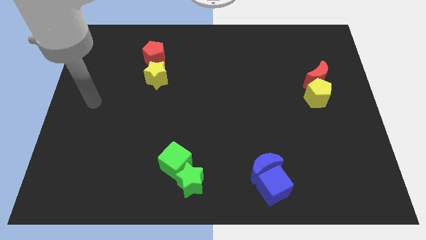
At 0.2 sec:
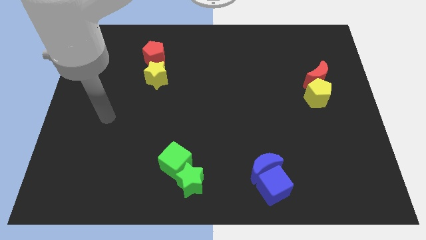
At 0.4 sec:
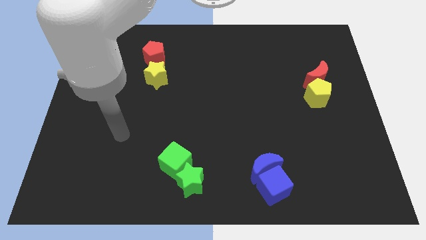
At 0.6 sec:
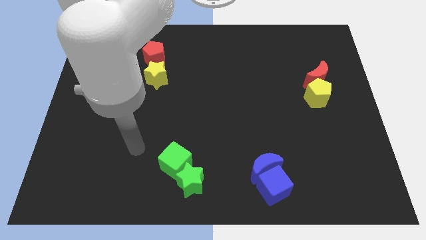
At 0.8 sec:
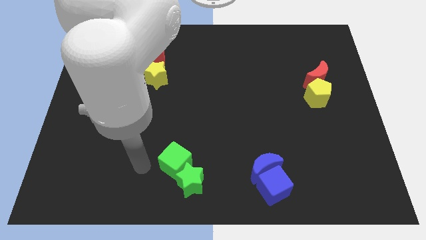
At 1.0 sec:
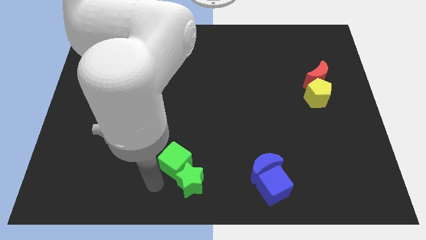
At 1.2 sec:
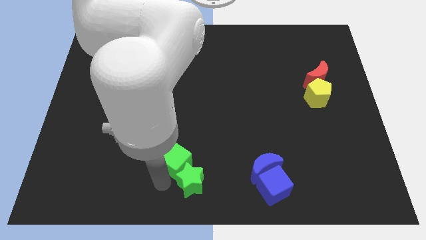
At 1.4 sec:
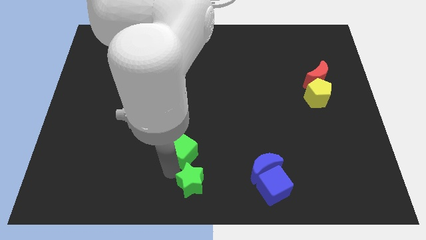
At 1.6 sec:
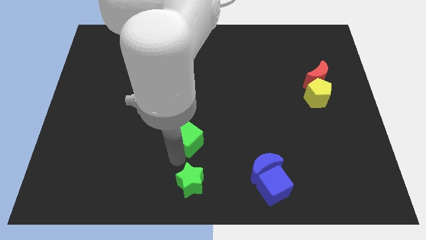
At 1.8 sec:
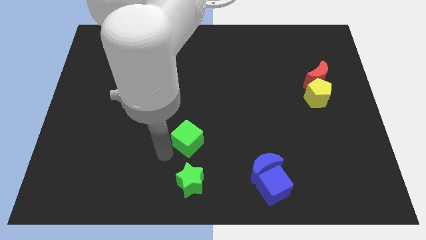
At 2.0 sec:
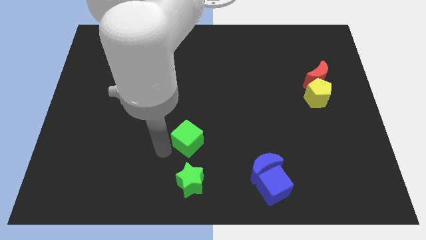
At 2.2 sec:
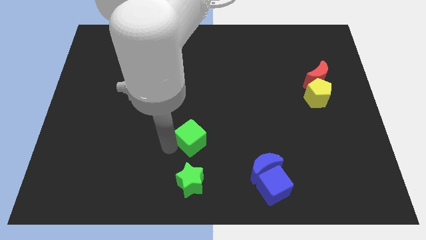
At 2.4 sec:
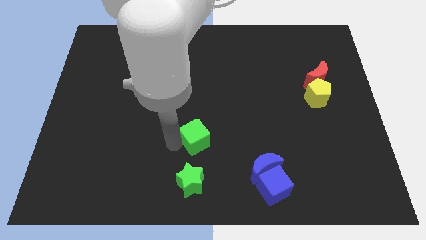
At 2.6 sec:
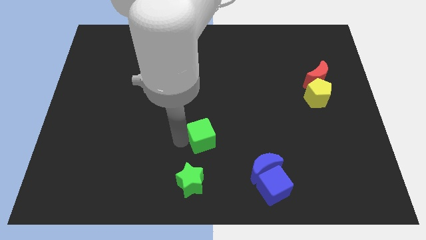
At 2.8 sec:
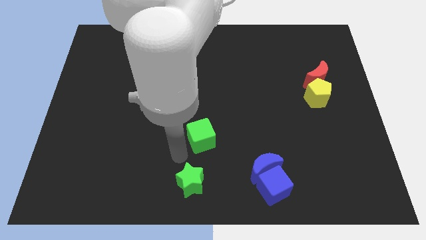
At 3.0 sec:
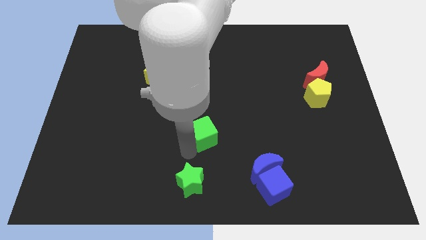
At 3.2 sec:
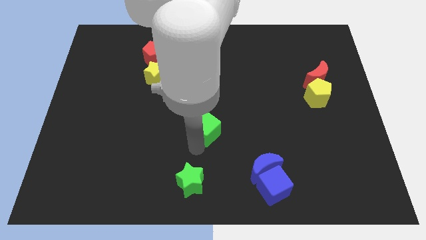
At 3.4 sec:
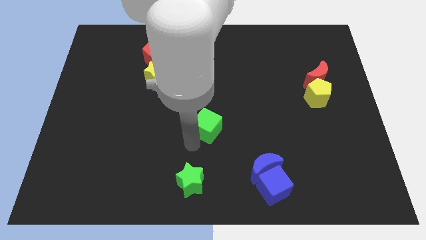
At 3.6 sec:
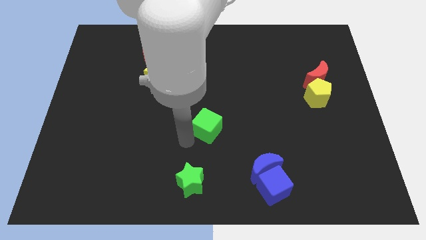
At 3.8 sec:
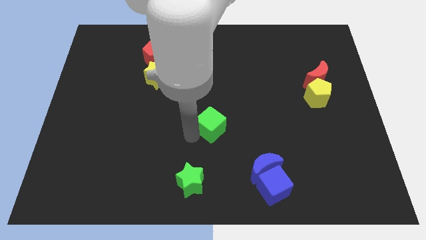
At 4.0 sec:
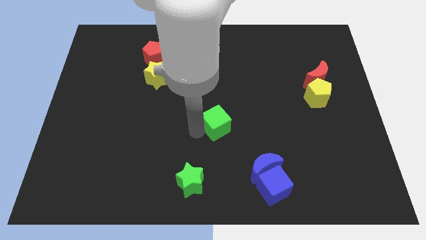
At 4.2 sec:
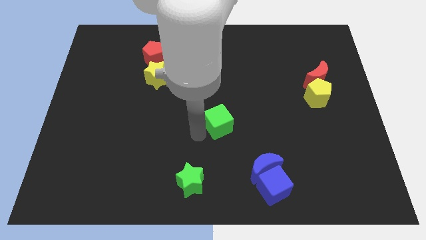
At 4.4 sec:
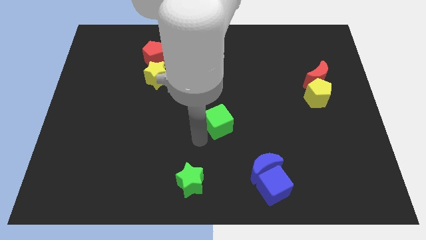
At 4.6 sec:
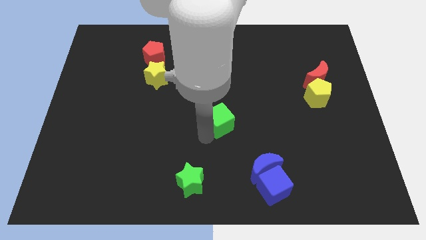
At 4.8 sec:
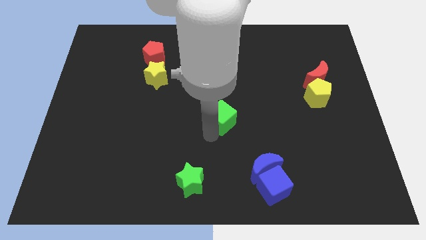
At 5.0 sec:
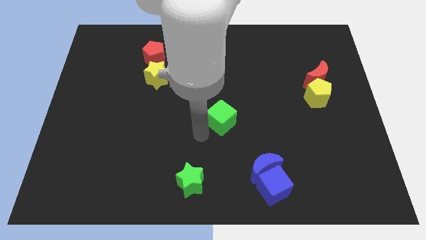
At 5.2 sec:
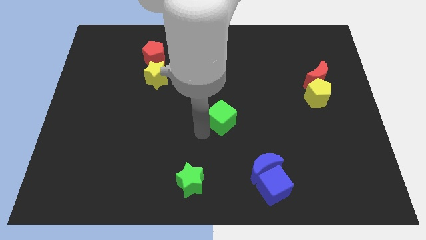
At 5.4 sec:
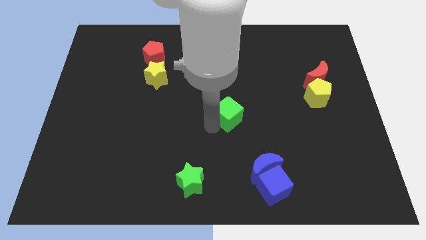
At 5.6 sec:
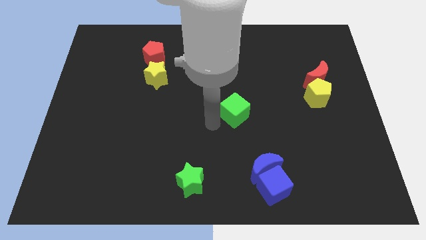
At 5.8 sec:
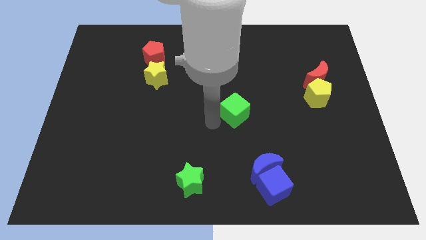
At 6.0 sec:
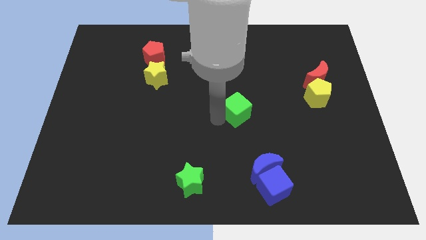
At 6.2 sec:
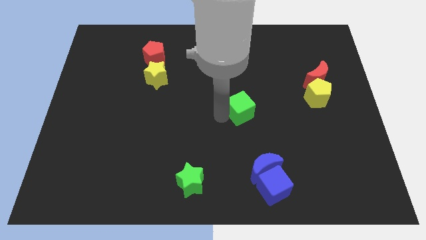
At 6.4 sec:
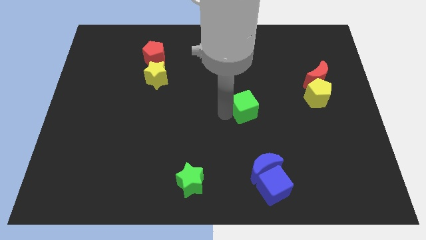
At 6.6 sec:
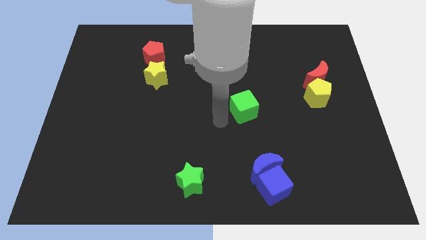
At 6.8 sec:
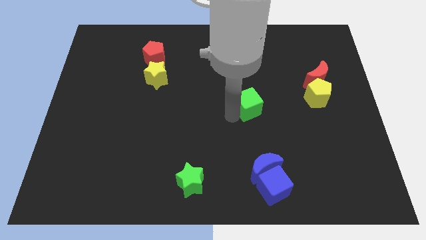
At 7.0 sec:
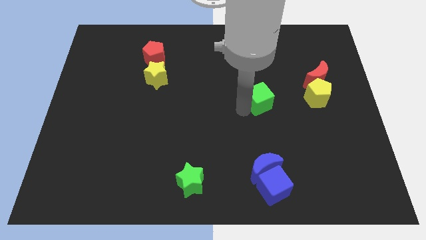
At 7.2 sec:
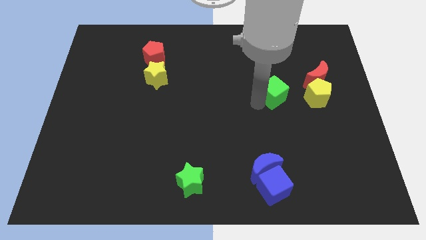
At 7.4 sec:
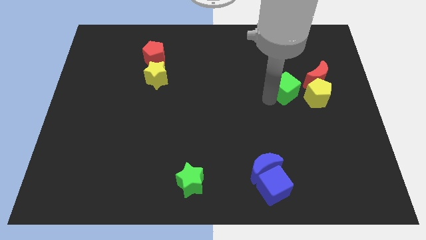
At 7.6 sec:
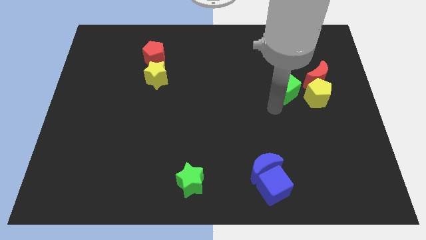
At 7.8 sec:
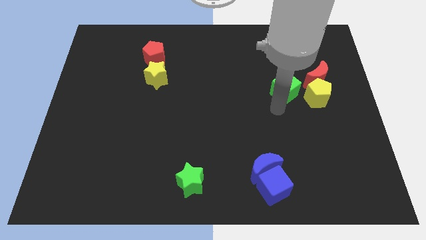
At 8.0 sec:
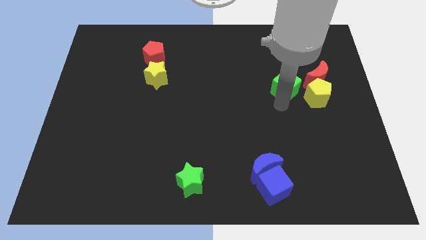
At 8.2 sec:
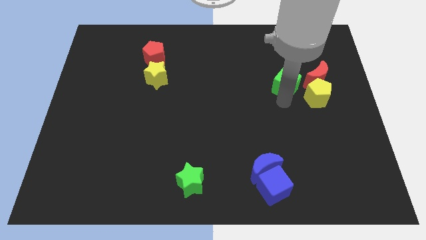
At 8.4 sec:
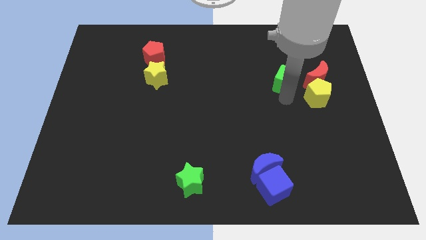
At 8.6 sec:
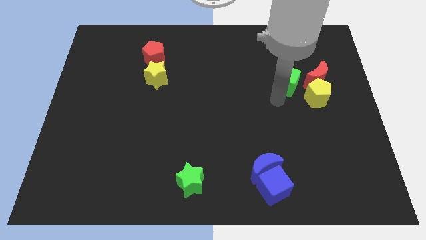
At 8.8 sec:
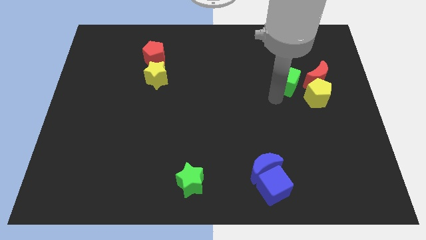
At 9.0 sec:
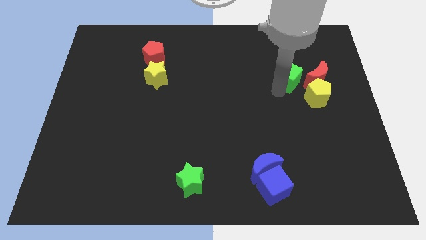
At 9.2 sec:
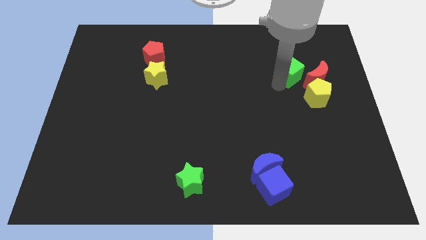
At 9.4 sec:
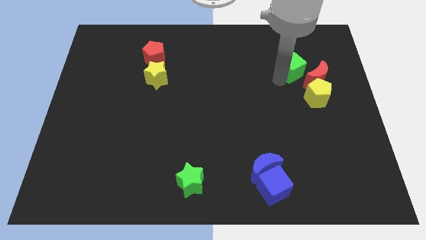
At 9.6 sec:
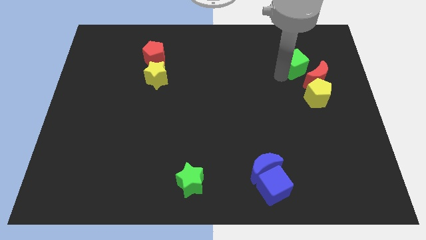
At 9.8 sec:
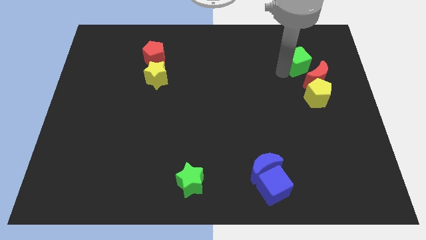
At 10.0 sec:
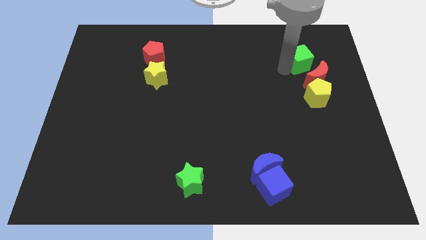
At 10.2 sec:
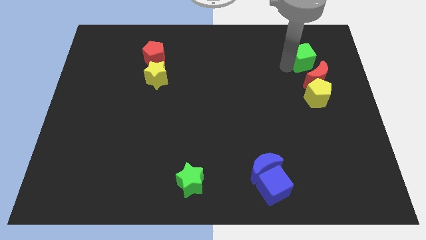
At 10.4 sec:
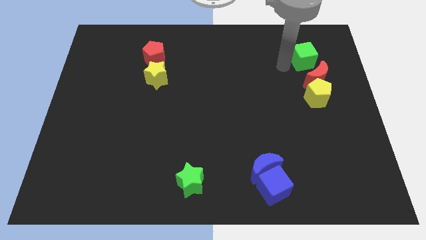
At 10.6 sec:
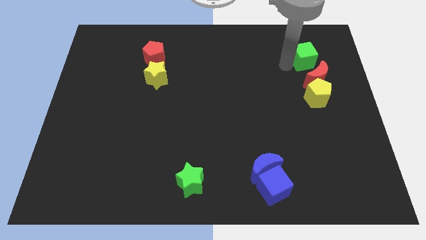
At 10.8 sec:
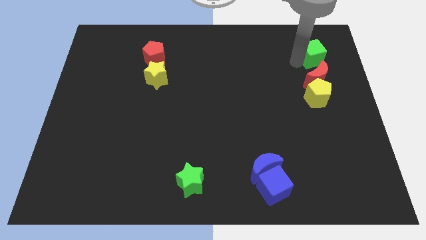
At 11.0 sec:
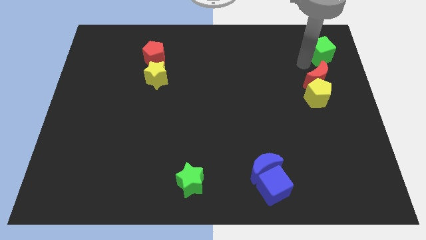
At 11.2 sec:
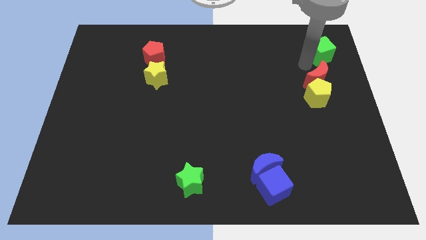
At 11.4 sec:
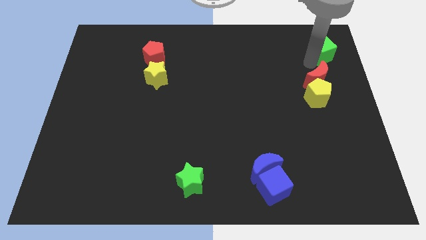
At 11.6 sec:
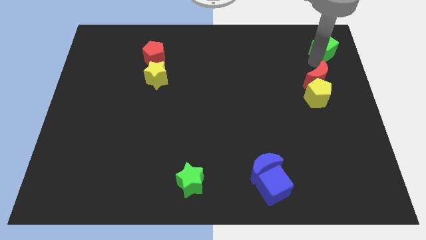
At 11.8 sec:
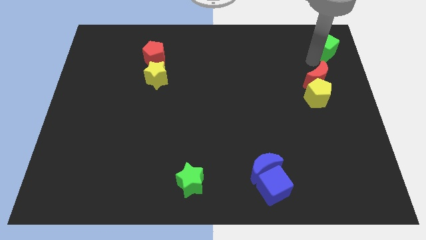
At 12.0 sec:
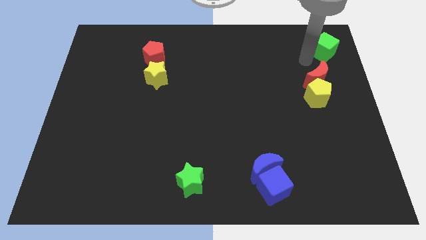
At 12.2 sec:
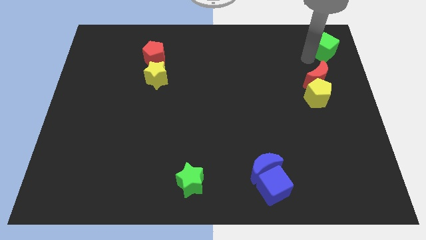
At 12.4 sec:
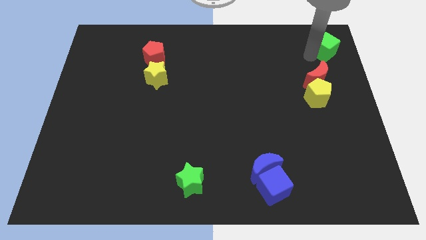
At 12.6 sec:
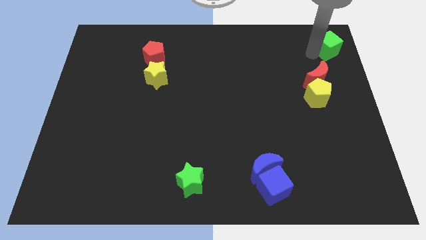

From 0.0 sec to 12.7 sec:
slide the green cube to the top right of the board
